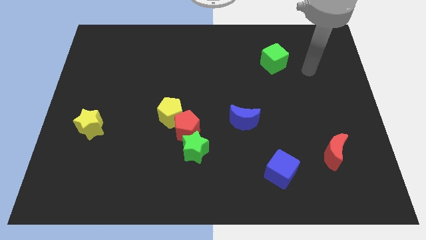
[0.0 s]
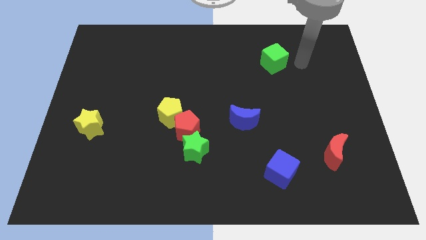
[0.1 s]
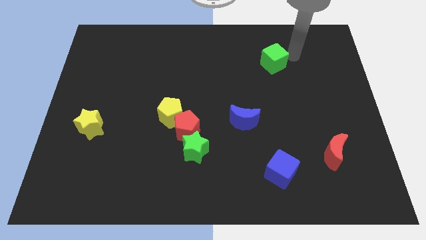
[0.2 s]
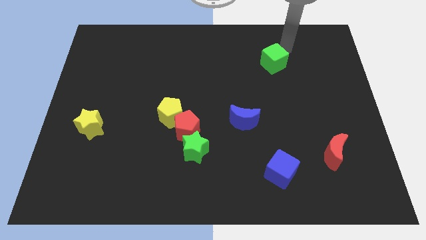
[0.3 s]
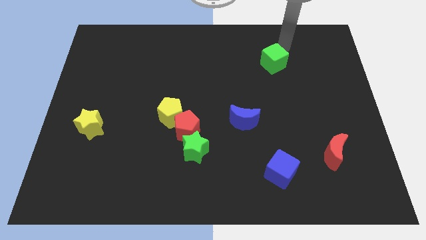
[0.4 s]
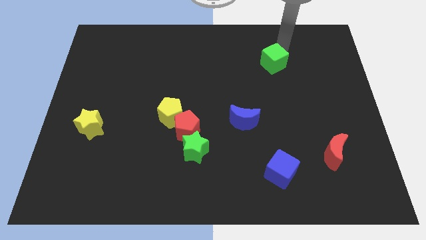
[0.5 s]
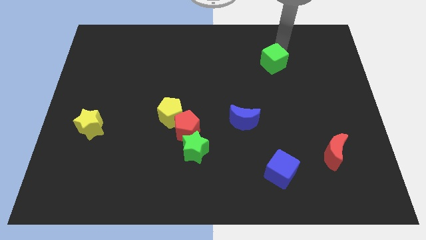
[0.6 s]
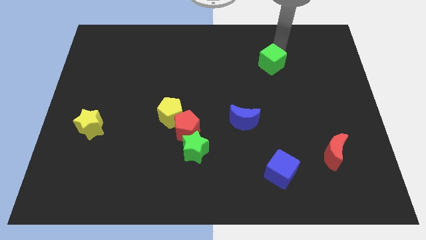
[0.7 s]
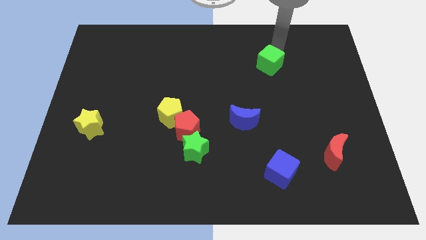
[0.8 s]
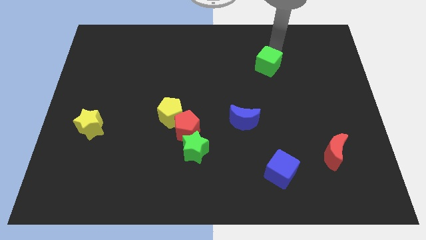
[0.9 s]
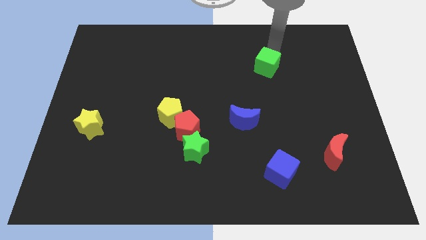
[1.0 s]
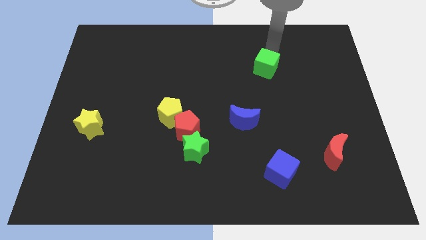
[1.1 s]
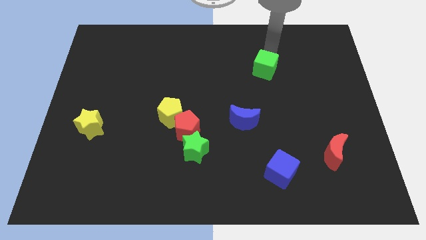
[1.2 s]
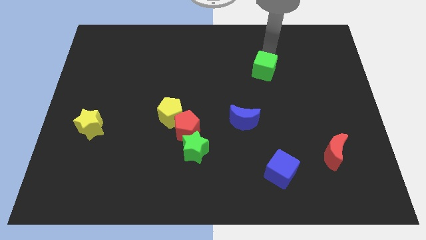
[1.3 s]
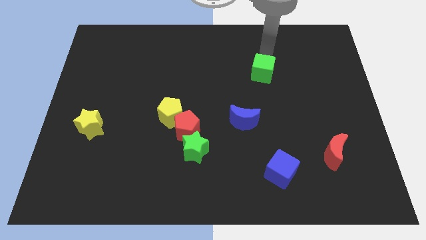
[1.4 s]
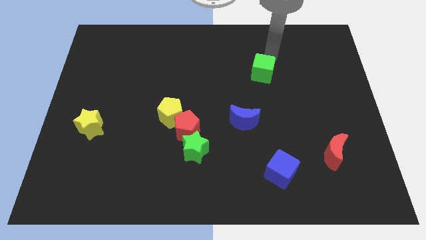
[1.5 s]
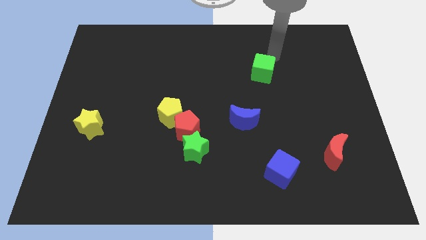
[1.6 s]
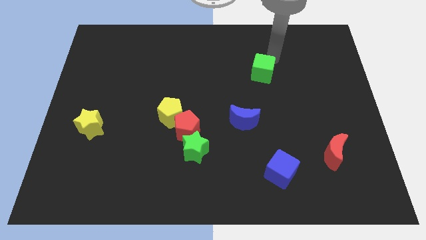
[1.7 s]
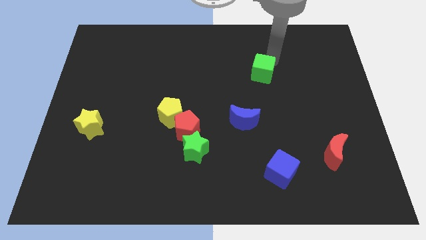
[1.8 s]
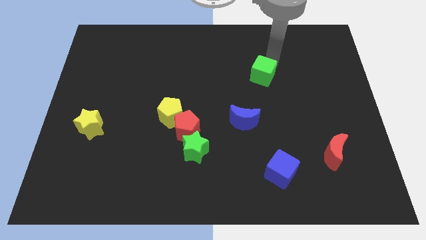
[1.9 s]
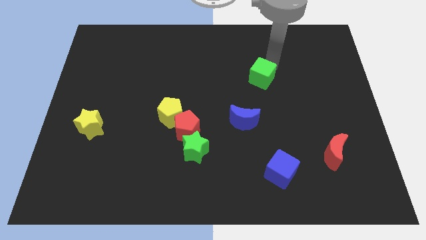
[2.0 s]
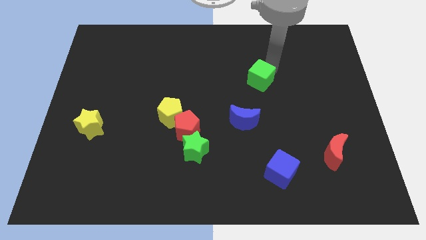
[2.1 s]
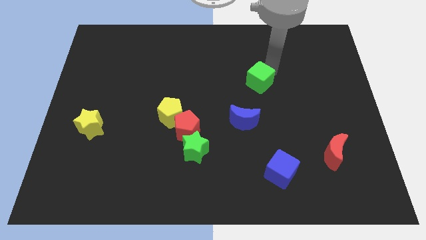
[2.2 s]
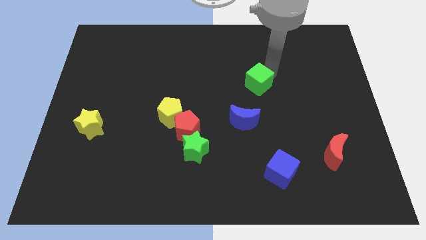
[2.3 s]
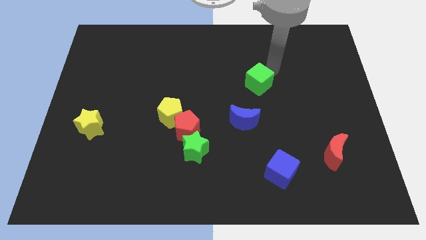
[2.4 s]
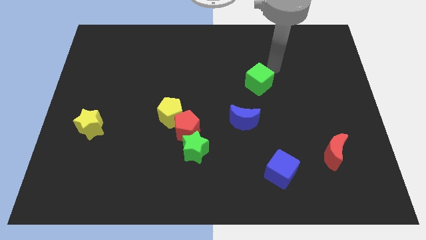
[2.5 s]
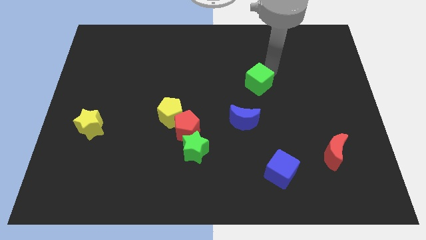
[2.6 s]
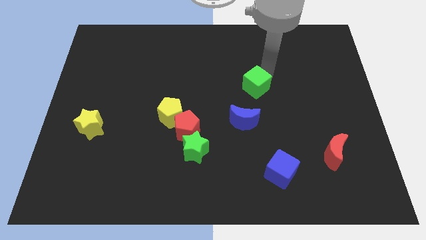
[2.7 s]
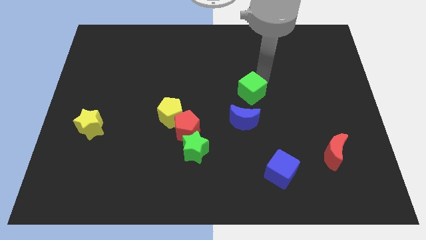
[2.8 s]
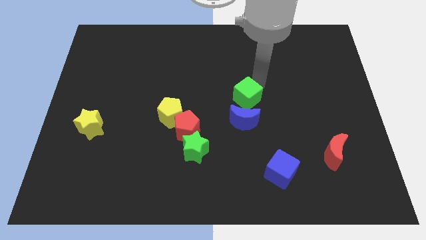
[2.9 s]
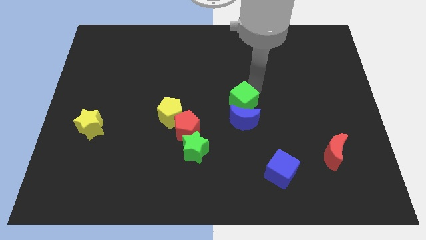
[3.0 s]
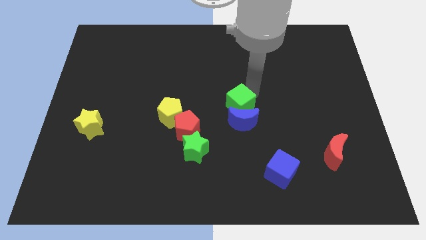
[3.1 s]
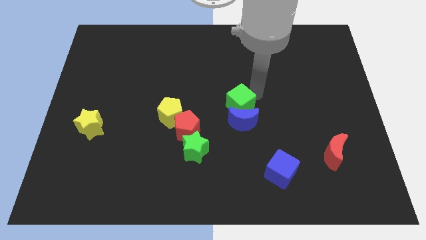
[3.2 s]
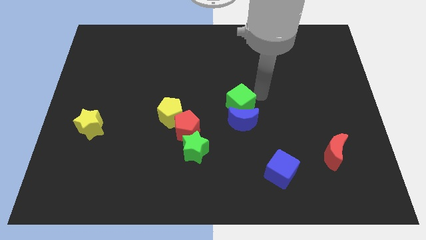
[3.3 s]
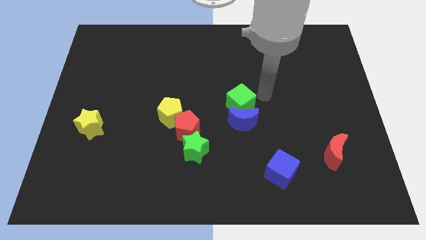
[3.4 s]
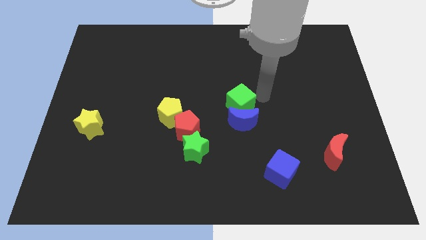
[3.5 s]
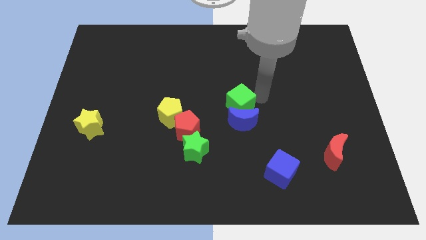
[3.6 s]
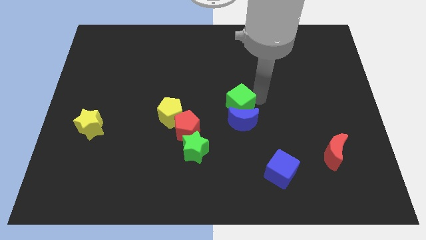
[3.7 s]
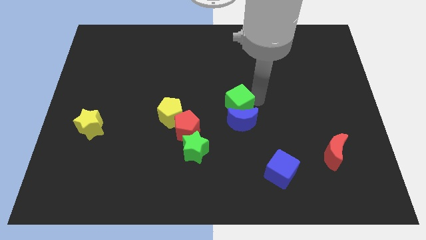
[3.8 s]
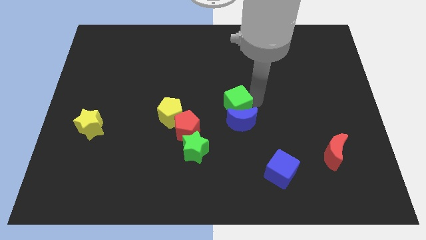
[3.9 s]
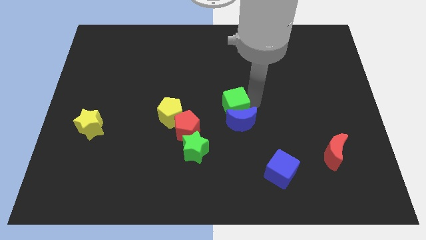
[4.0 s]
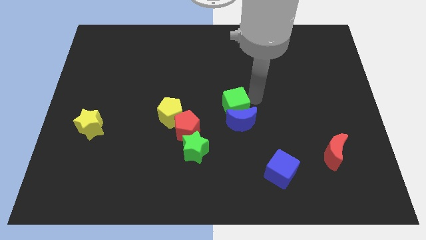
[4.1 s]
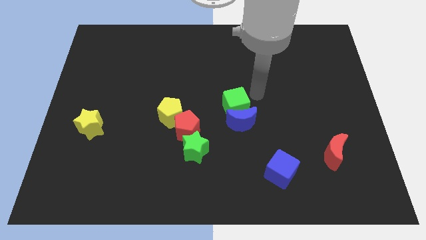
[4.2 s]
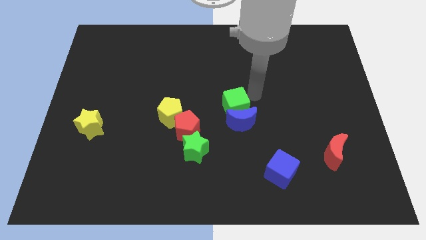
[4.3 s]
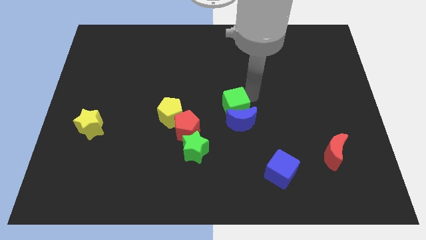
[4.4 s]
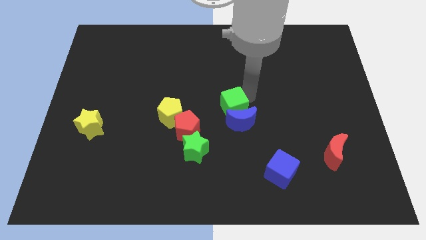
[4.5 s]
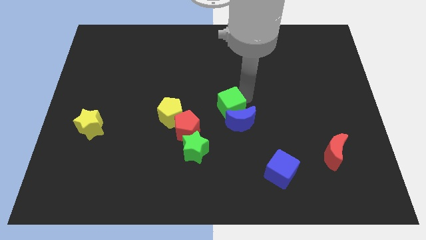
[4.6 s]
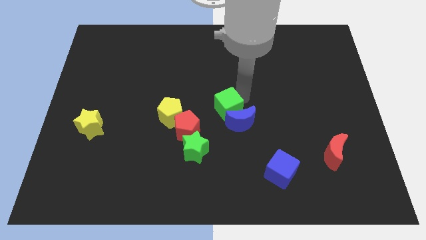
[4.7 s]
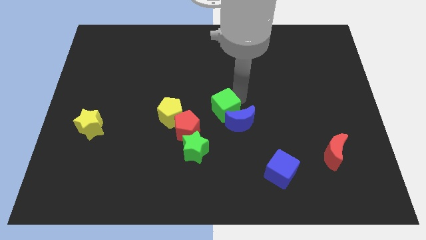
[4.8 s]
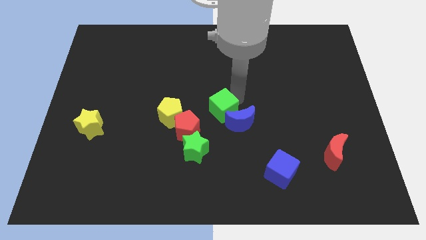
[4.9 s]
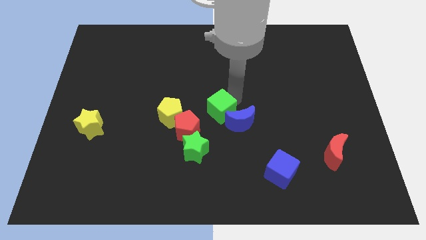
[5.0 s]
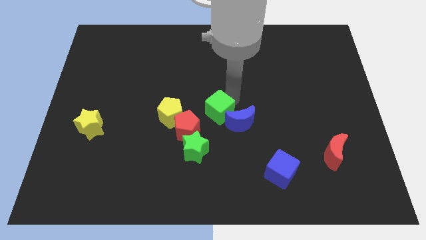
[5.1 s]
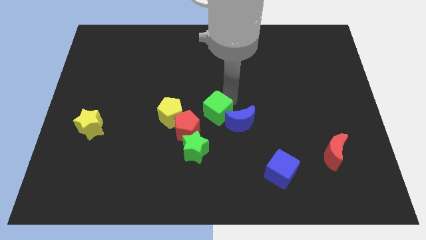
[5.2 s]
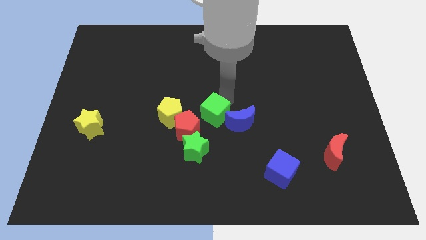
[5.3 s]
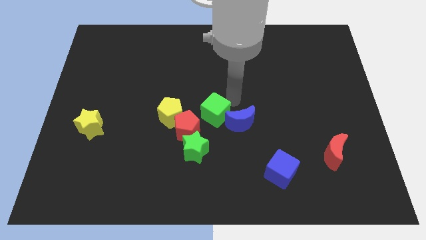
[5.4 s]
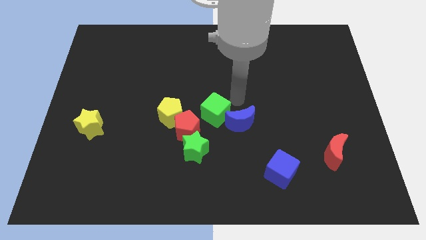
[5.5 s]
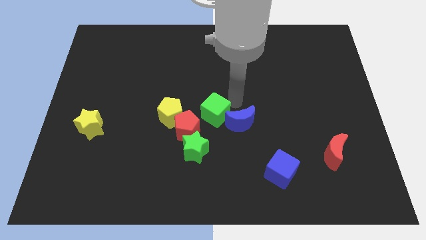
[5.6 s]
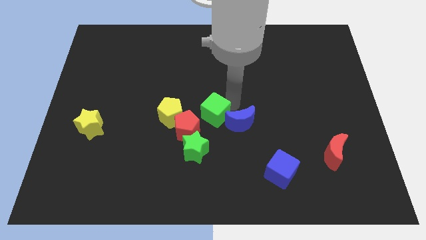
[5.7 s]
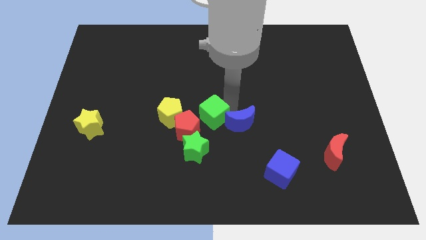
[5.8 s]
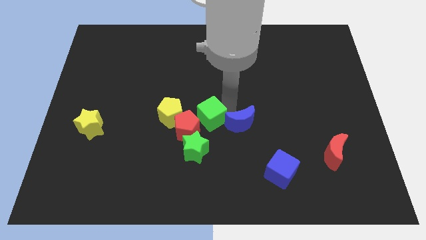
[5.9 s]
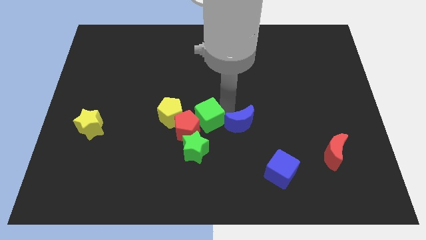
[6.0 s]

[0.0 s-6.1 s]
slide the green cube towards the red pentagon

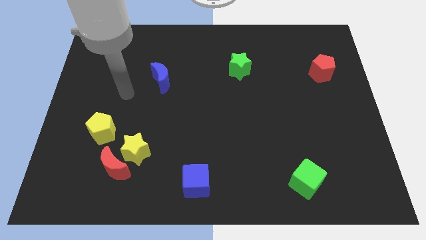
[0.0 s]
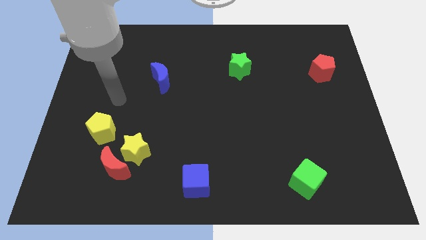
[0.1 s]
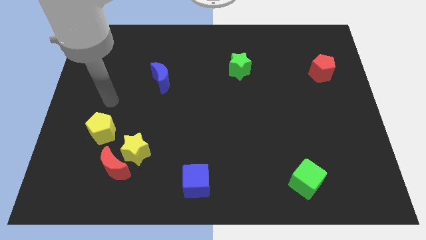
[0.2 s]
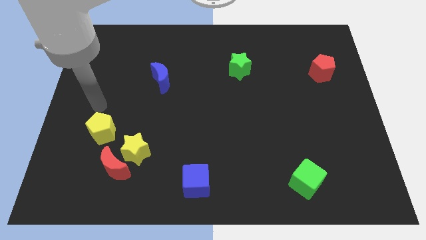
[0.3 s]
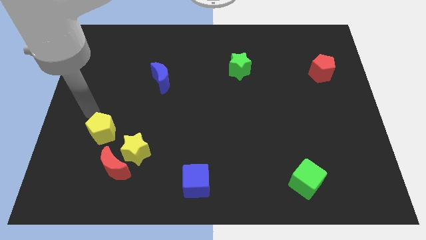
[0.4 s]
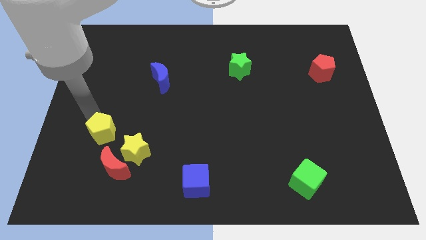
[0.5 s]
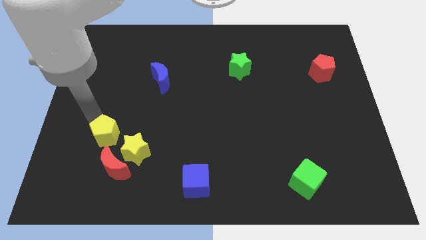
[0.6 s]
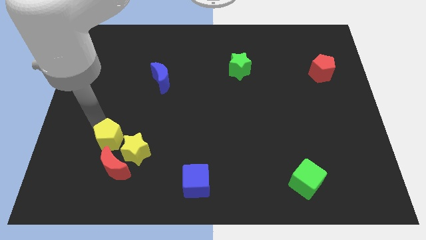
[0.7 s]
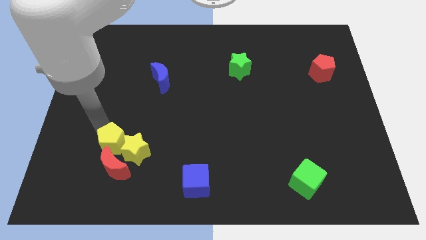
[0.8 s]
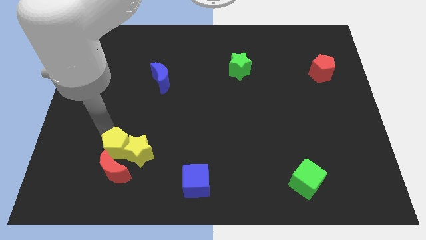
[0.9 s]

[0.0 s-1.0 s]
slide the yellow pentagon next to the red moon

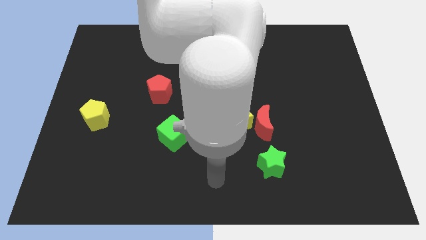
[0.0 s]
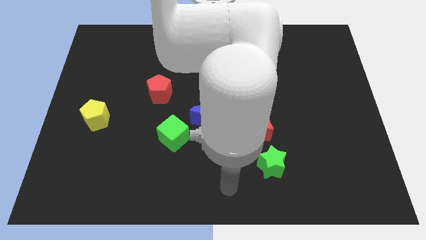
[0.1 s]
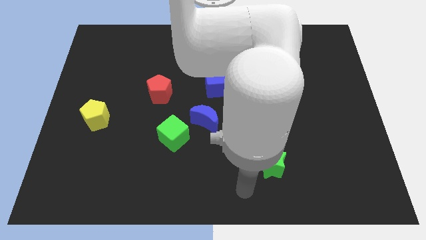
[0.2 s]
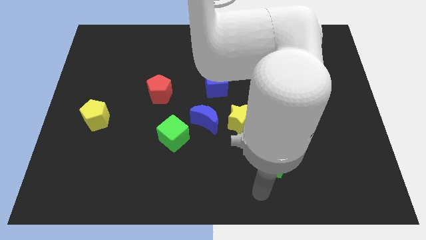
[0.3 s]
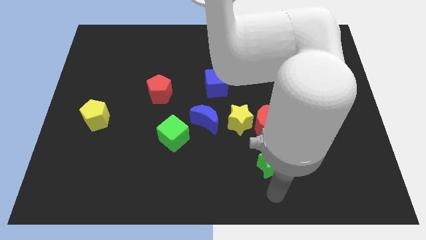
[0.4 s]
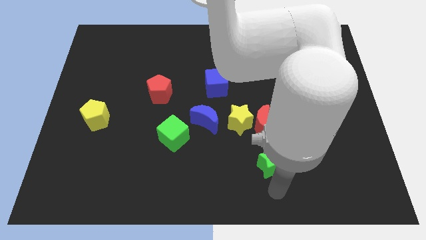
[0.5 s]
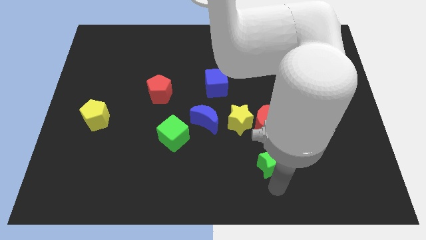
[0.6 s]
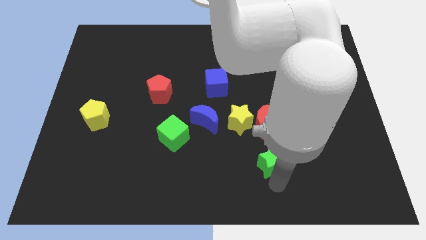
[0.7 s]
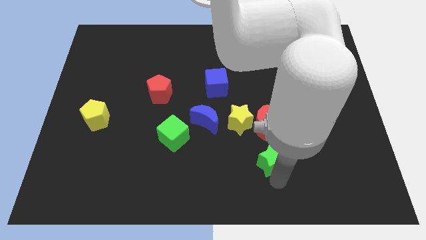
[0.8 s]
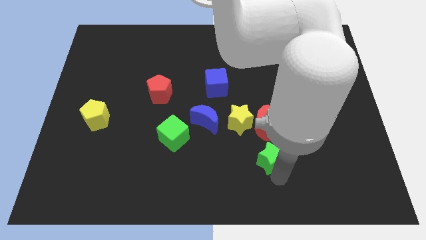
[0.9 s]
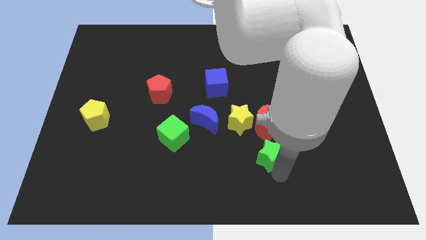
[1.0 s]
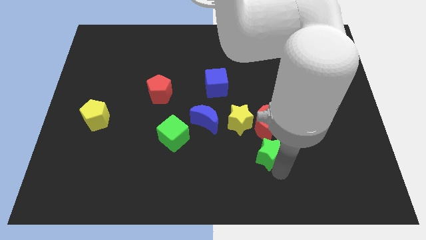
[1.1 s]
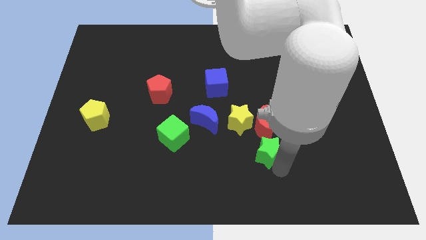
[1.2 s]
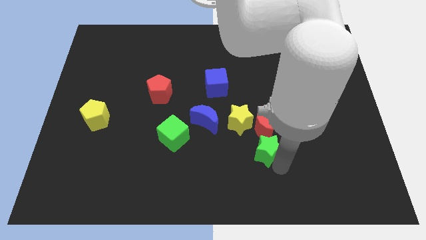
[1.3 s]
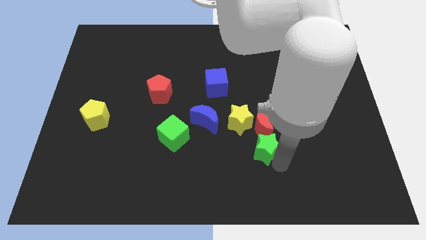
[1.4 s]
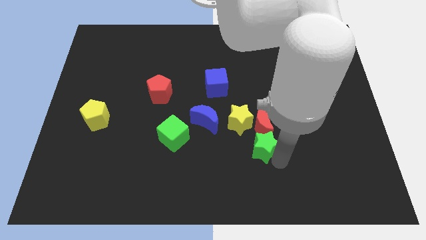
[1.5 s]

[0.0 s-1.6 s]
slide the green star close to the red moon
